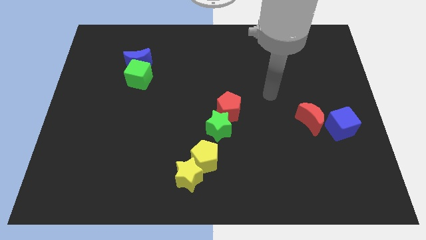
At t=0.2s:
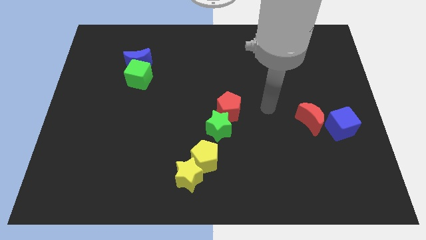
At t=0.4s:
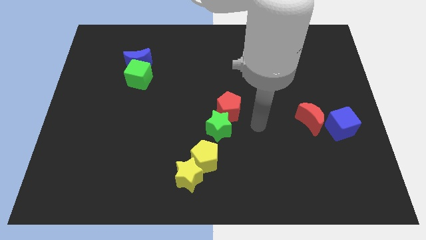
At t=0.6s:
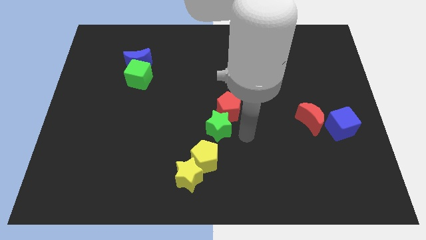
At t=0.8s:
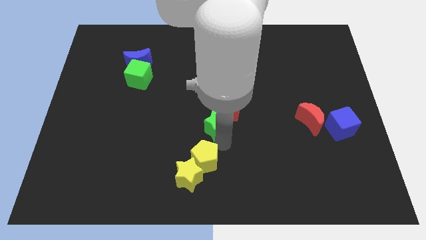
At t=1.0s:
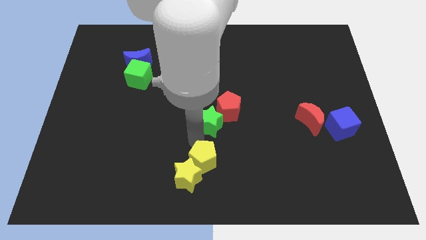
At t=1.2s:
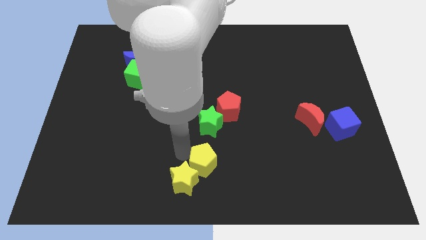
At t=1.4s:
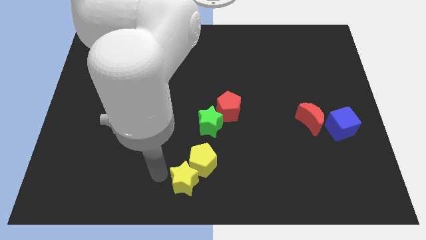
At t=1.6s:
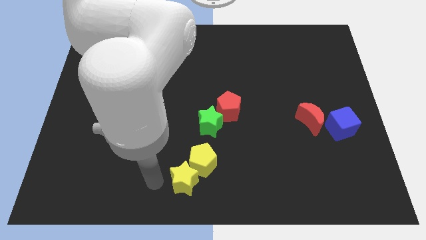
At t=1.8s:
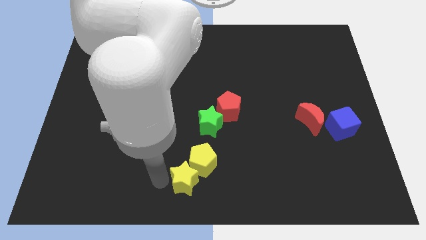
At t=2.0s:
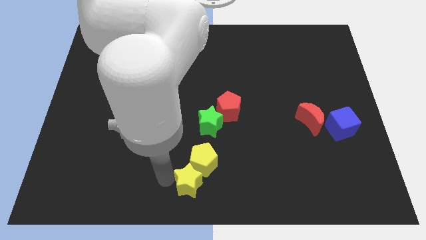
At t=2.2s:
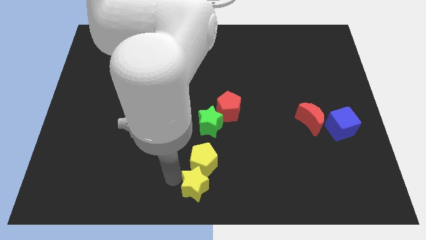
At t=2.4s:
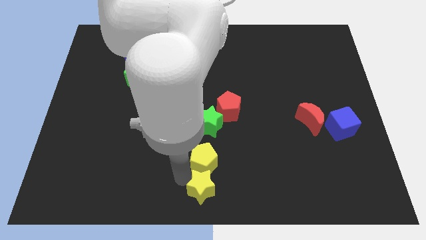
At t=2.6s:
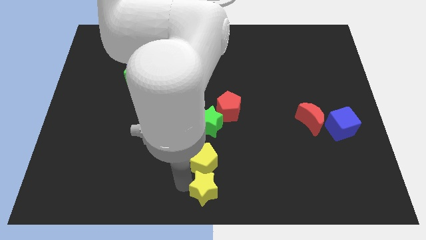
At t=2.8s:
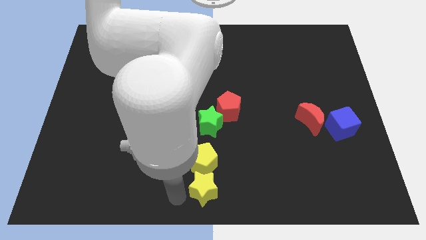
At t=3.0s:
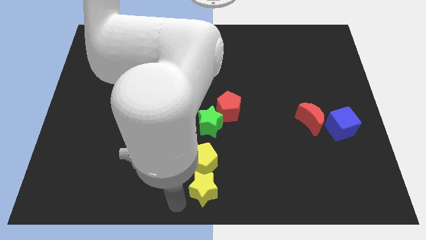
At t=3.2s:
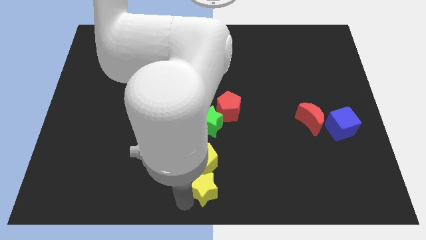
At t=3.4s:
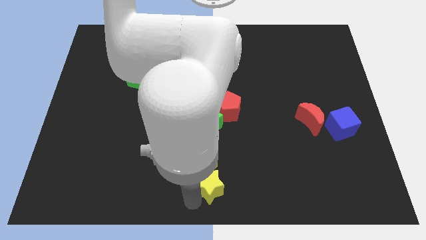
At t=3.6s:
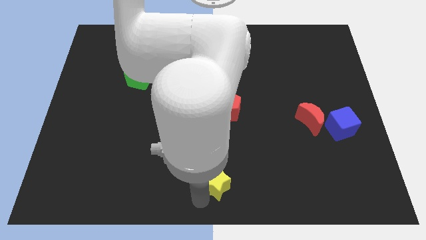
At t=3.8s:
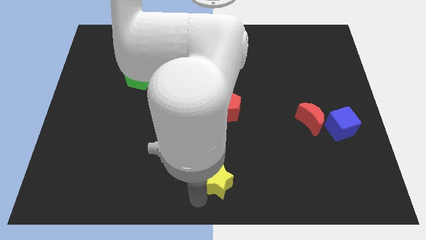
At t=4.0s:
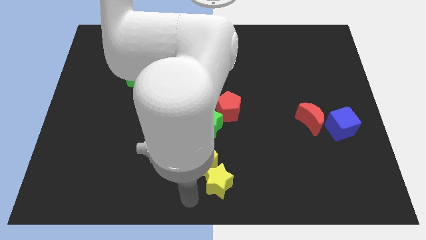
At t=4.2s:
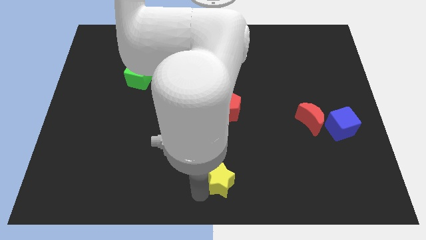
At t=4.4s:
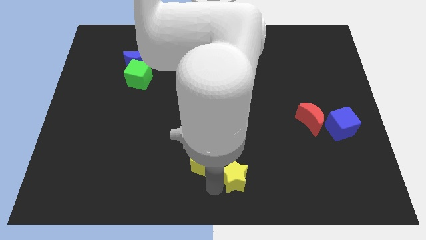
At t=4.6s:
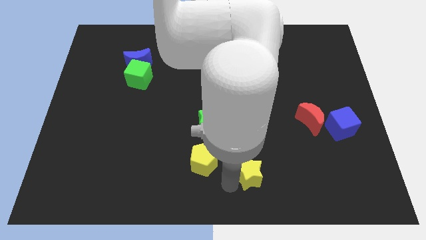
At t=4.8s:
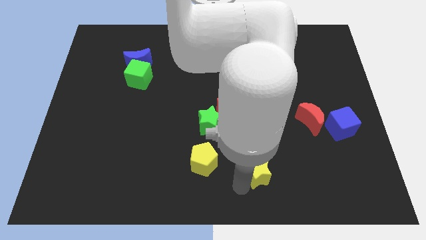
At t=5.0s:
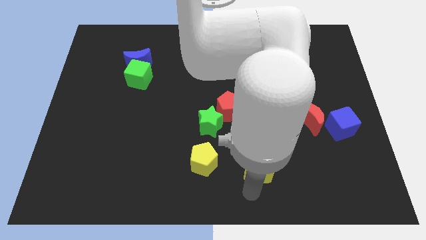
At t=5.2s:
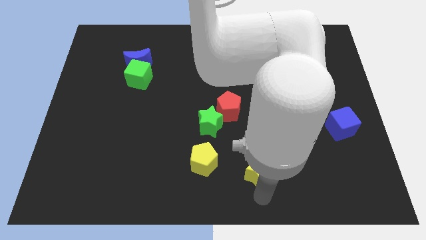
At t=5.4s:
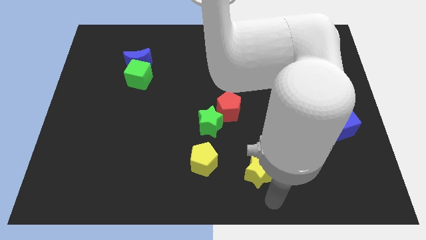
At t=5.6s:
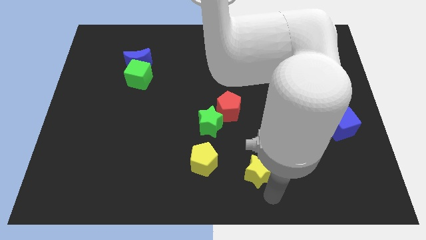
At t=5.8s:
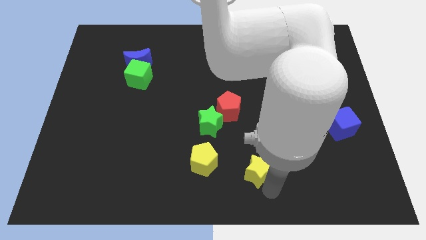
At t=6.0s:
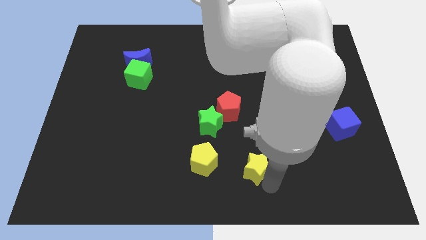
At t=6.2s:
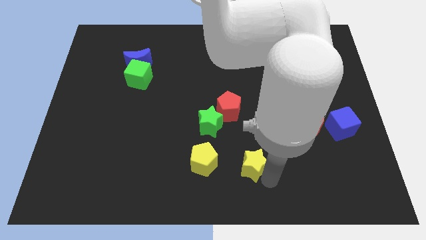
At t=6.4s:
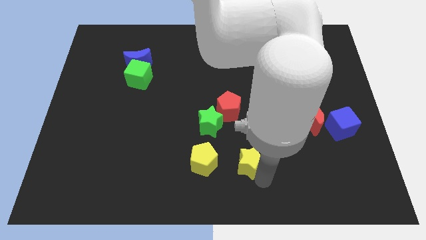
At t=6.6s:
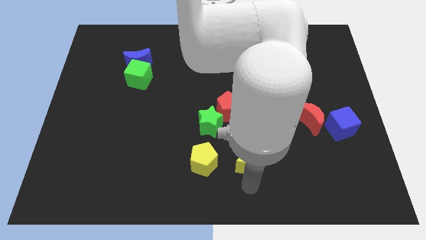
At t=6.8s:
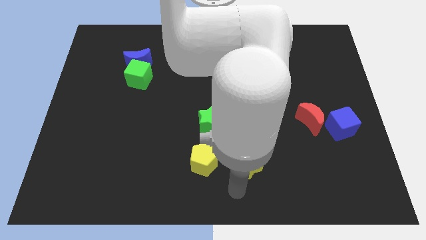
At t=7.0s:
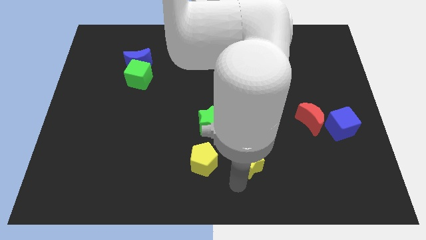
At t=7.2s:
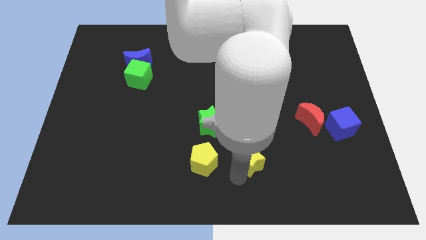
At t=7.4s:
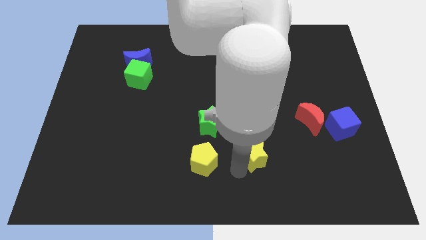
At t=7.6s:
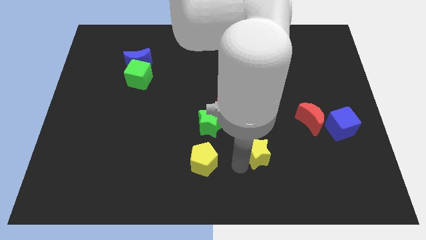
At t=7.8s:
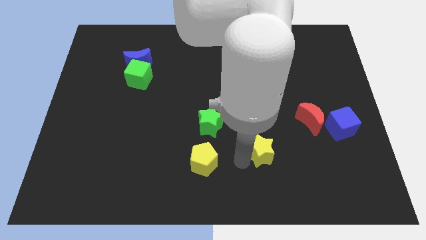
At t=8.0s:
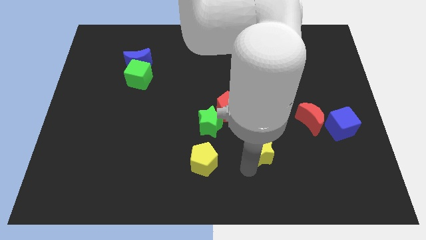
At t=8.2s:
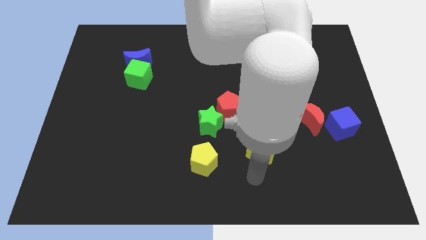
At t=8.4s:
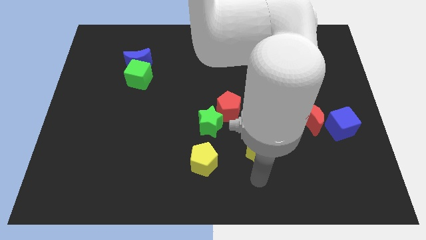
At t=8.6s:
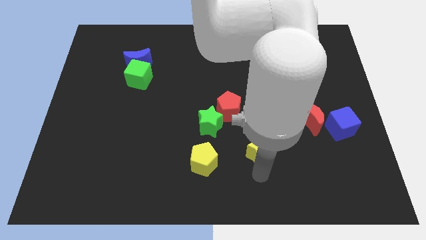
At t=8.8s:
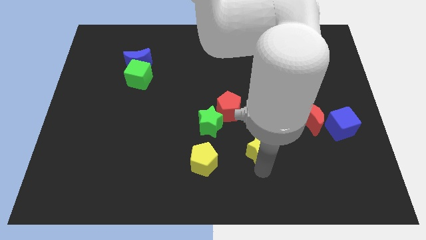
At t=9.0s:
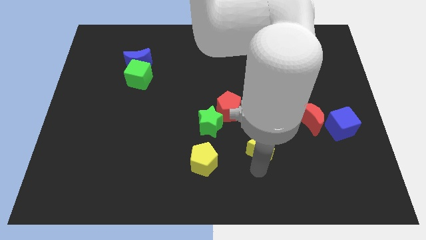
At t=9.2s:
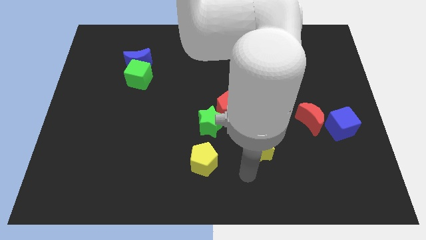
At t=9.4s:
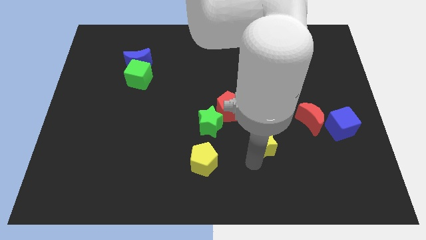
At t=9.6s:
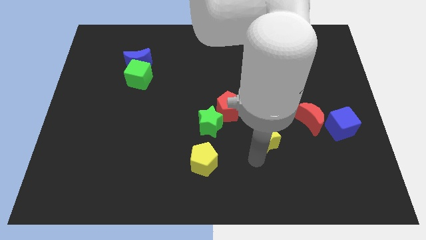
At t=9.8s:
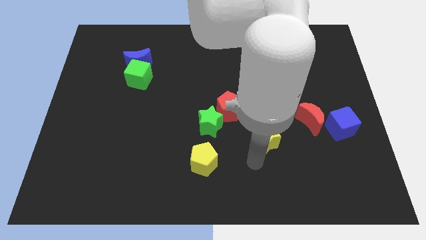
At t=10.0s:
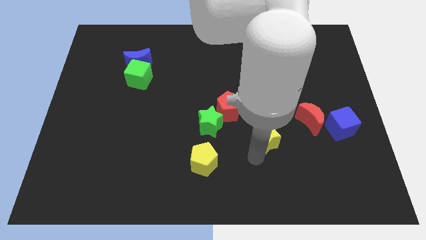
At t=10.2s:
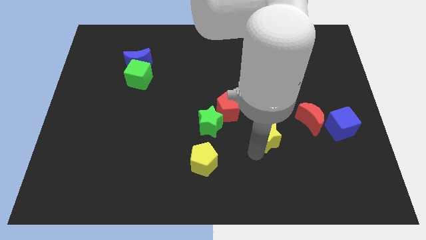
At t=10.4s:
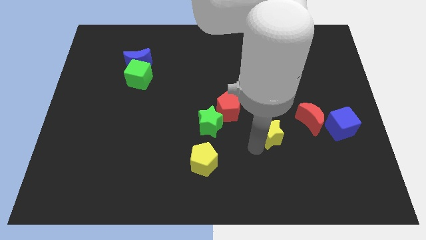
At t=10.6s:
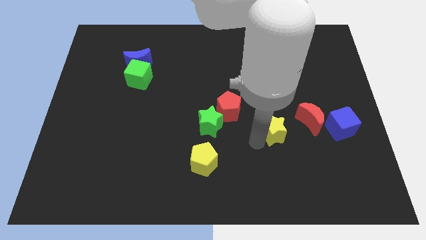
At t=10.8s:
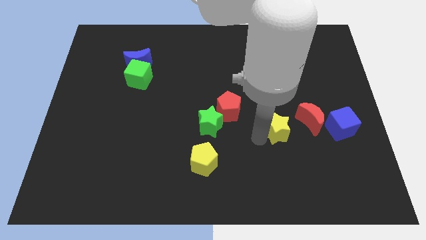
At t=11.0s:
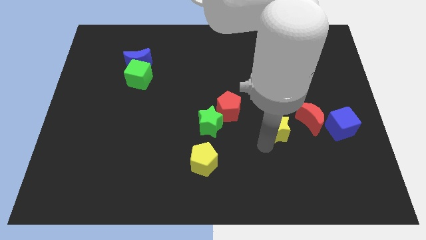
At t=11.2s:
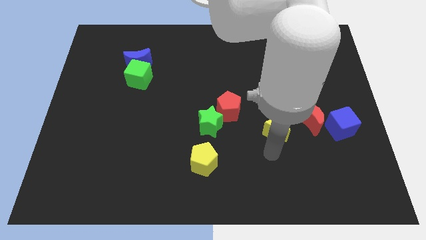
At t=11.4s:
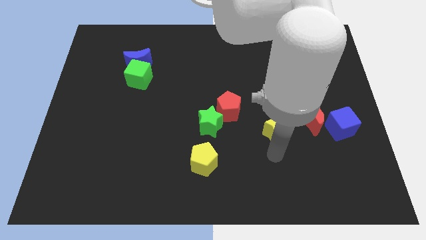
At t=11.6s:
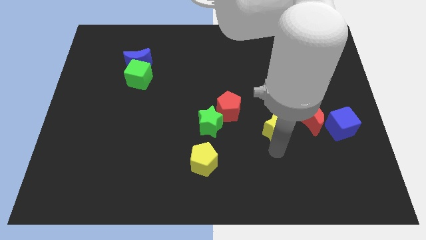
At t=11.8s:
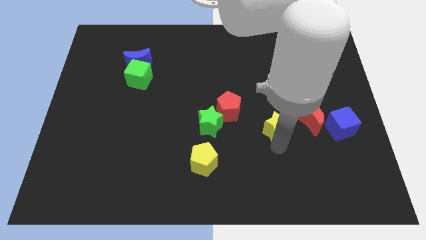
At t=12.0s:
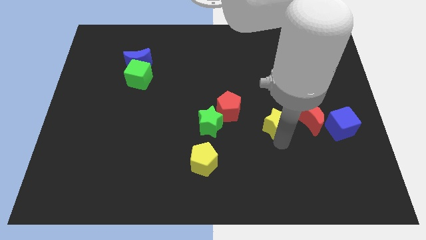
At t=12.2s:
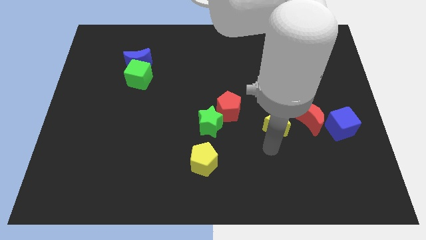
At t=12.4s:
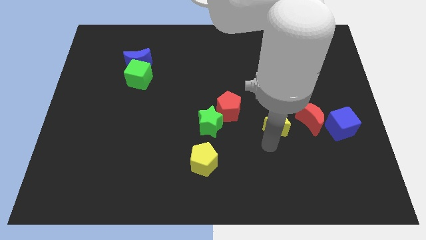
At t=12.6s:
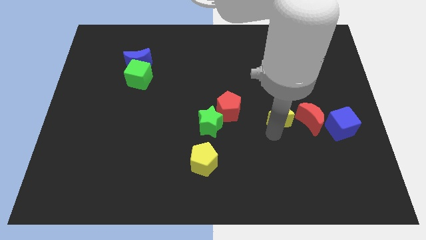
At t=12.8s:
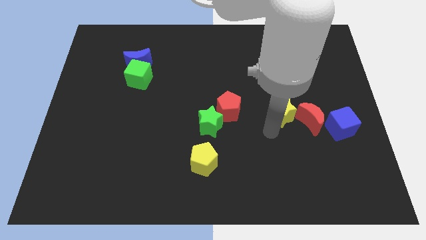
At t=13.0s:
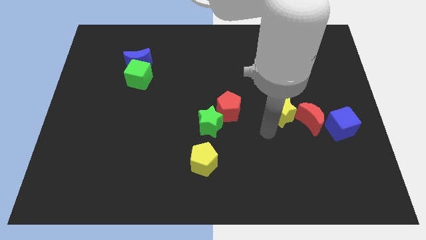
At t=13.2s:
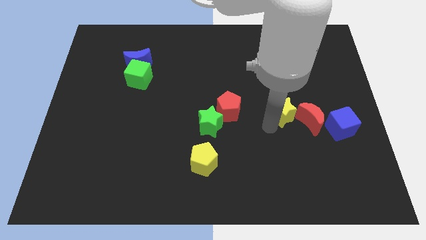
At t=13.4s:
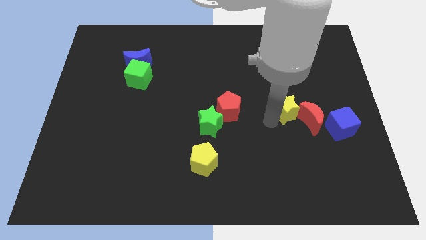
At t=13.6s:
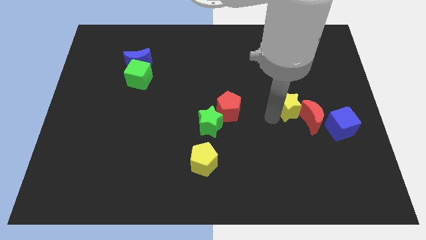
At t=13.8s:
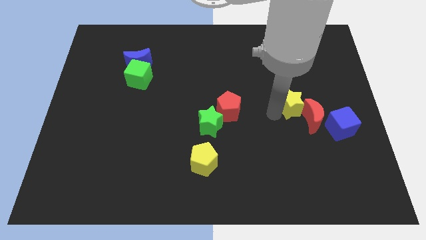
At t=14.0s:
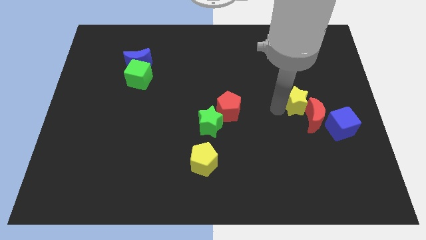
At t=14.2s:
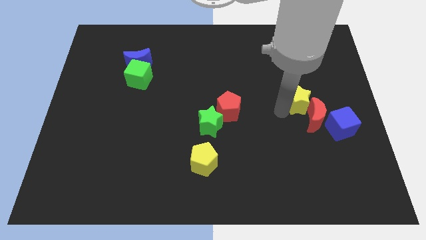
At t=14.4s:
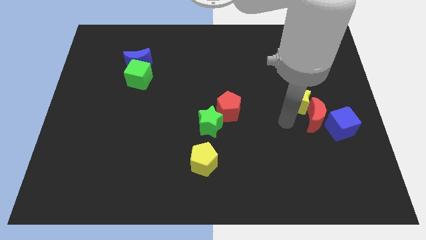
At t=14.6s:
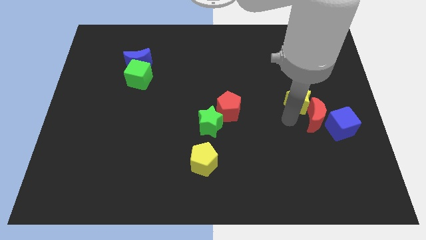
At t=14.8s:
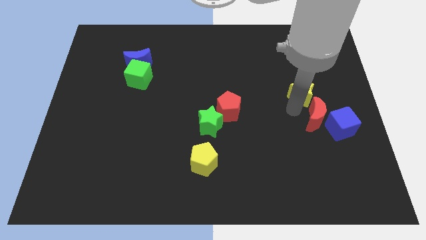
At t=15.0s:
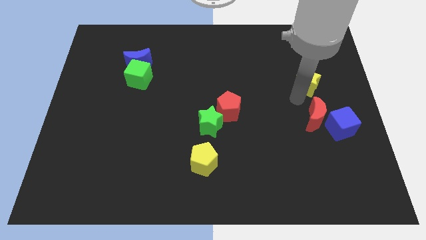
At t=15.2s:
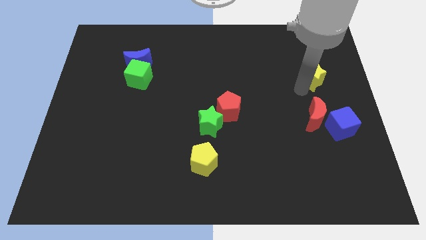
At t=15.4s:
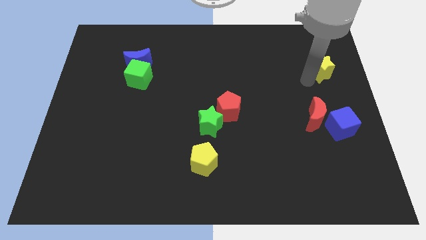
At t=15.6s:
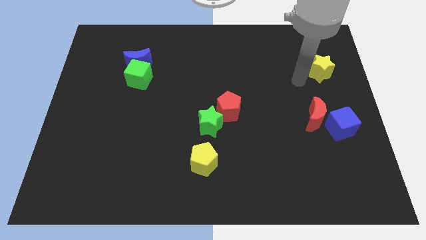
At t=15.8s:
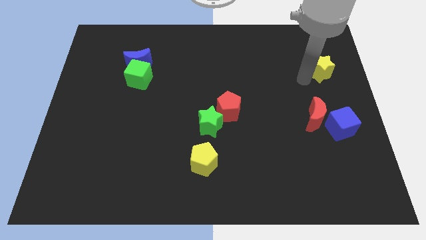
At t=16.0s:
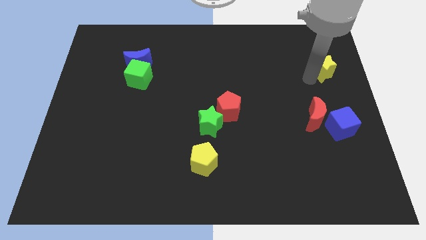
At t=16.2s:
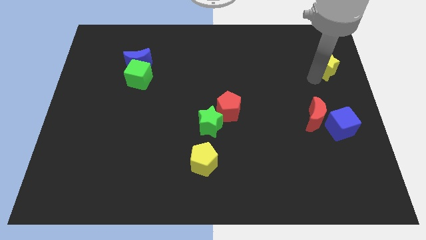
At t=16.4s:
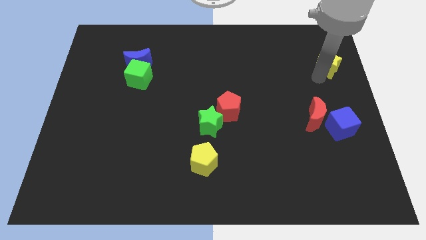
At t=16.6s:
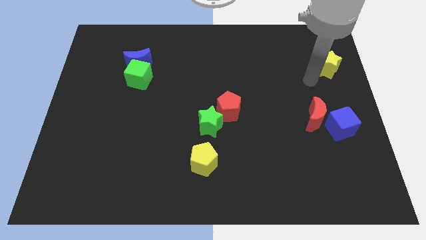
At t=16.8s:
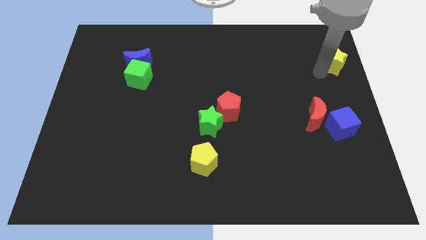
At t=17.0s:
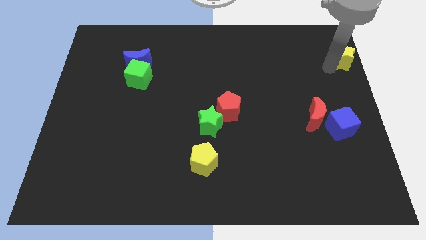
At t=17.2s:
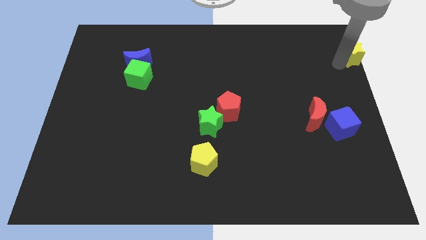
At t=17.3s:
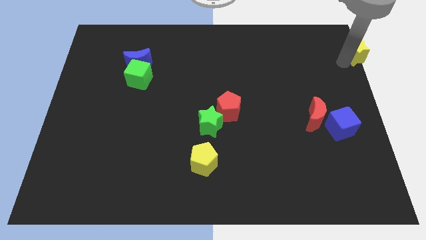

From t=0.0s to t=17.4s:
slide the yellow star to the top right corner
